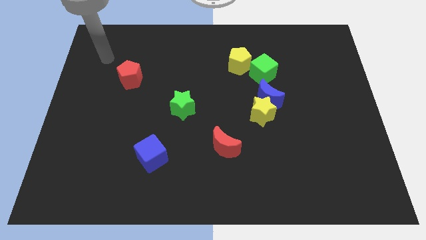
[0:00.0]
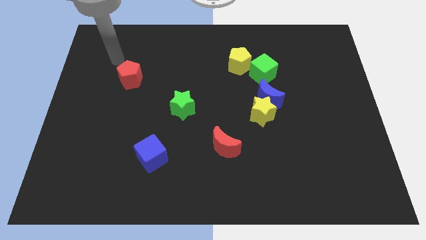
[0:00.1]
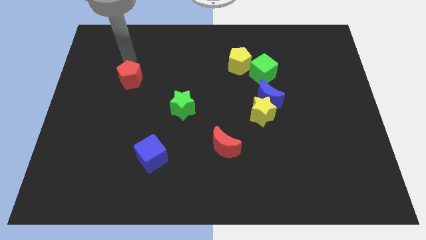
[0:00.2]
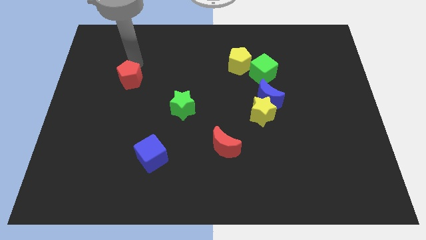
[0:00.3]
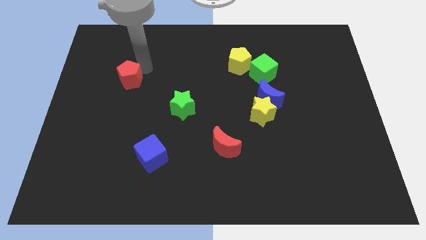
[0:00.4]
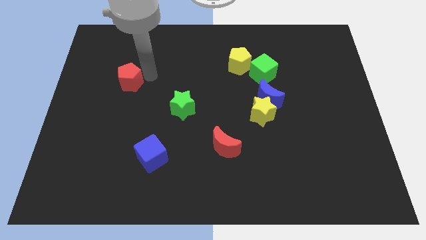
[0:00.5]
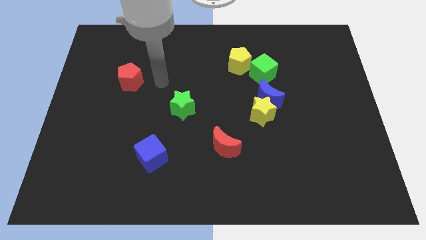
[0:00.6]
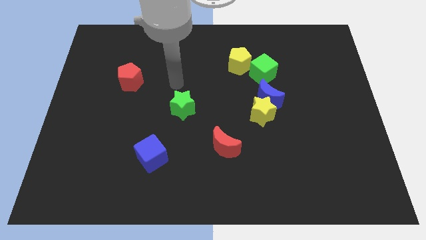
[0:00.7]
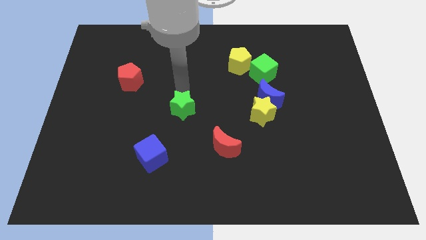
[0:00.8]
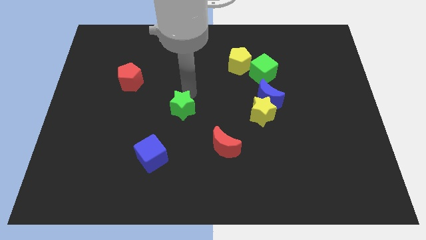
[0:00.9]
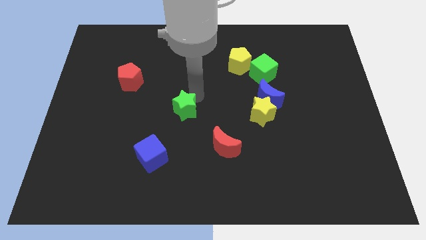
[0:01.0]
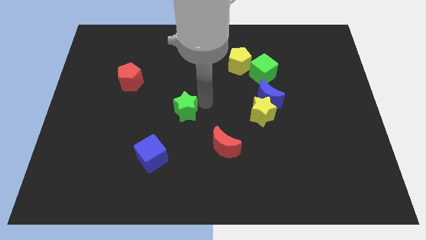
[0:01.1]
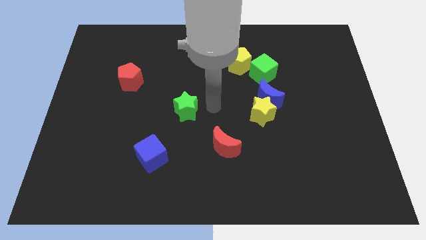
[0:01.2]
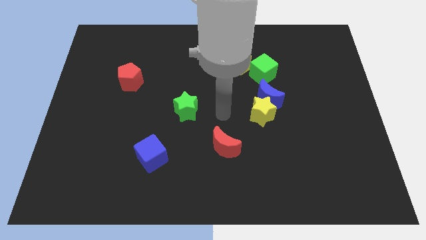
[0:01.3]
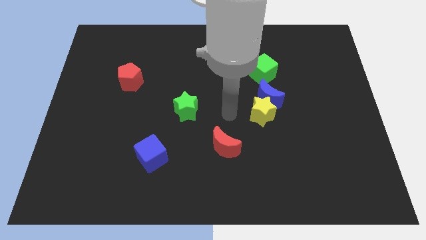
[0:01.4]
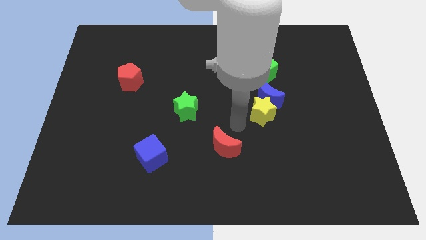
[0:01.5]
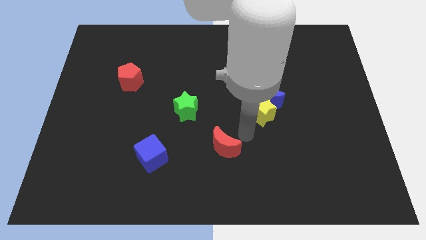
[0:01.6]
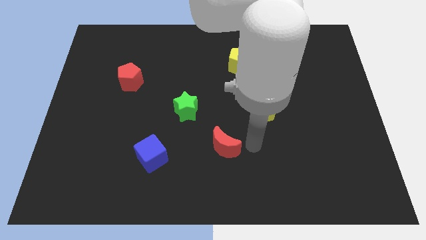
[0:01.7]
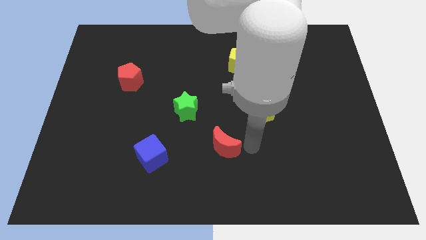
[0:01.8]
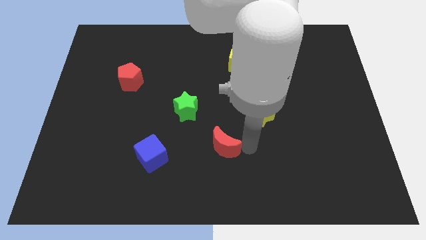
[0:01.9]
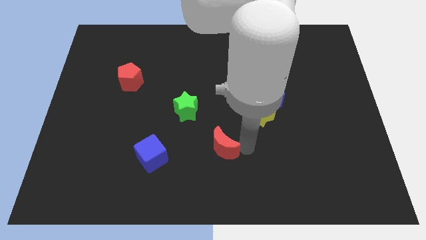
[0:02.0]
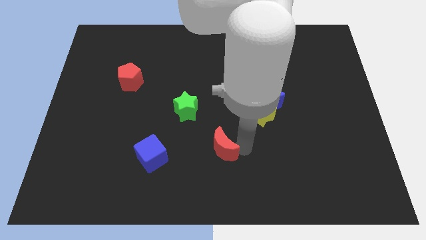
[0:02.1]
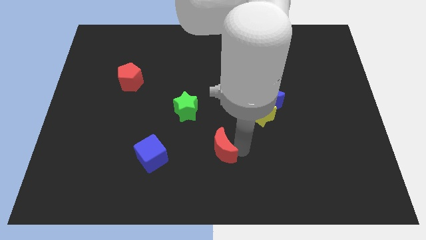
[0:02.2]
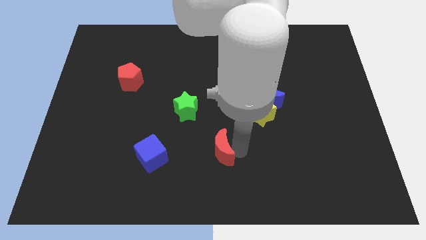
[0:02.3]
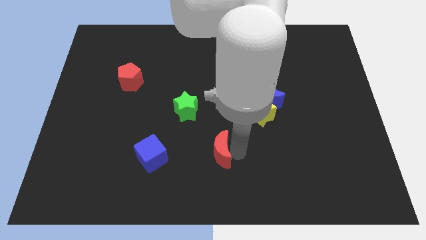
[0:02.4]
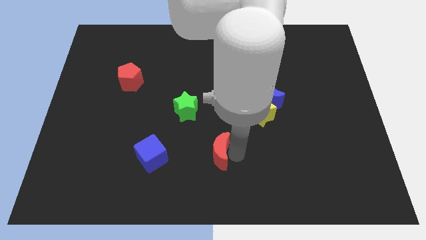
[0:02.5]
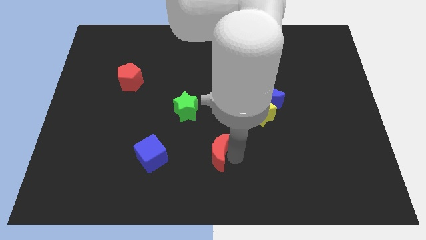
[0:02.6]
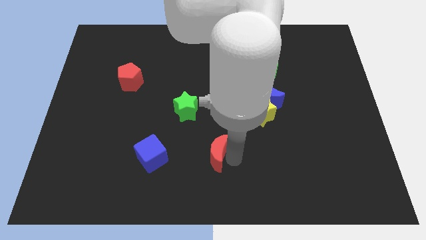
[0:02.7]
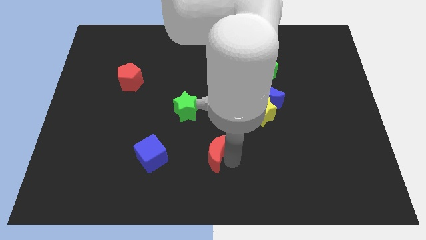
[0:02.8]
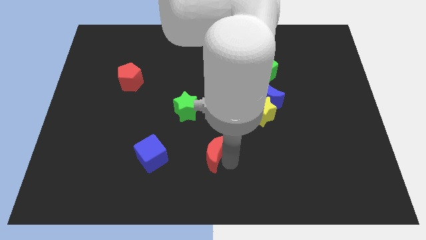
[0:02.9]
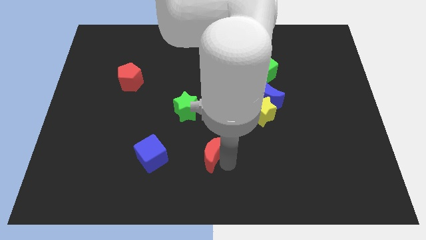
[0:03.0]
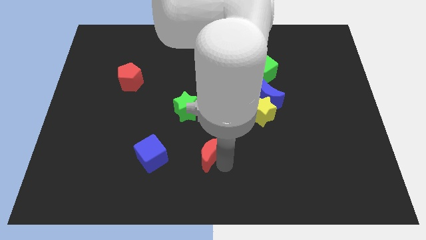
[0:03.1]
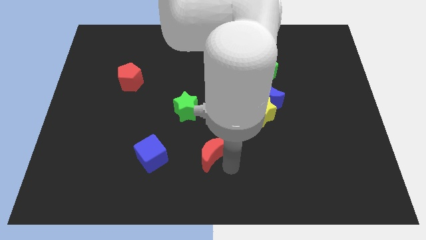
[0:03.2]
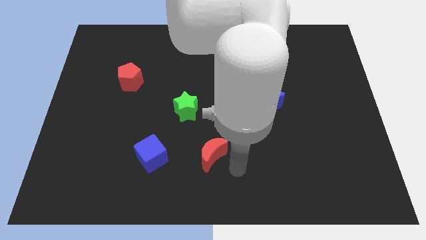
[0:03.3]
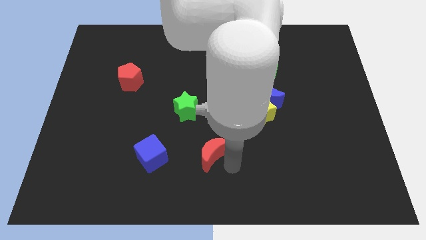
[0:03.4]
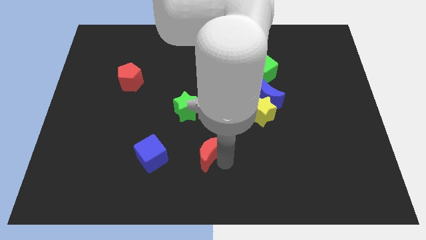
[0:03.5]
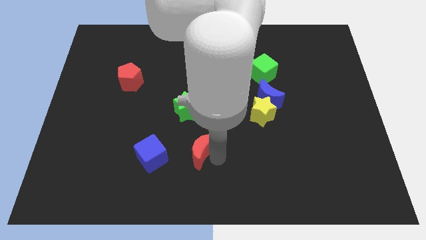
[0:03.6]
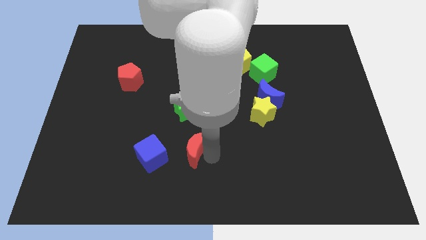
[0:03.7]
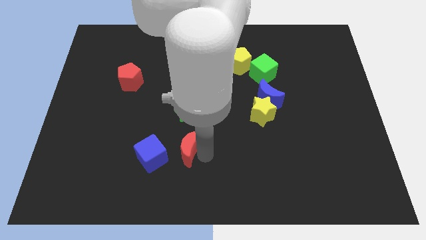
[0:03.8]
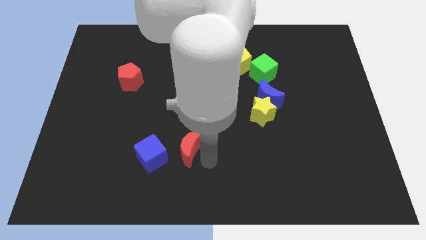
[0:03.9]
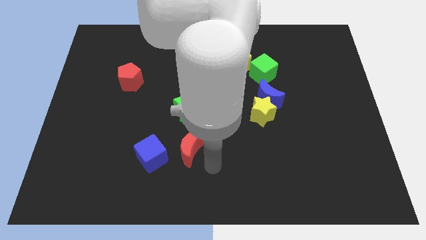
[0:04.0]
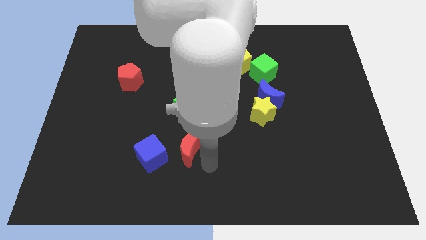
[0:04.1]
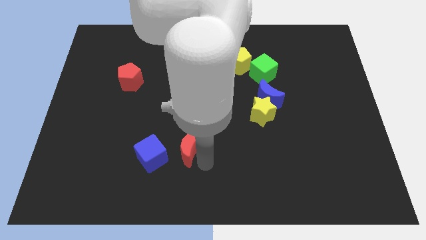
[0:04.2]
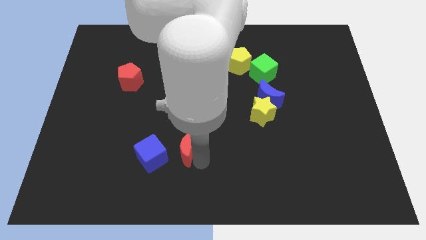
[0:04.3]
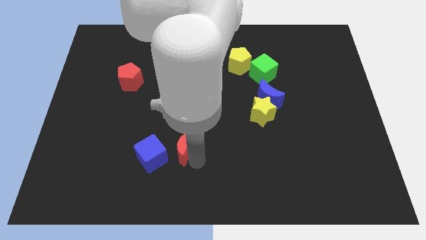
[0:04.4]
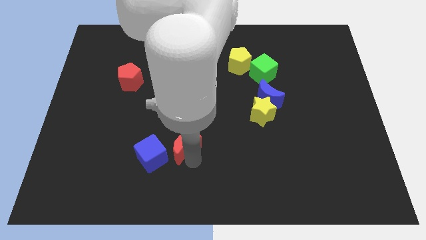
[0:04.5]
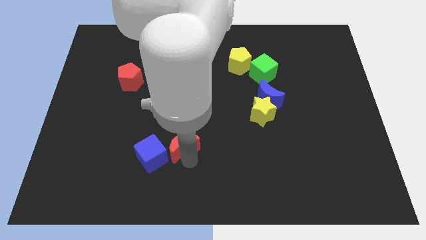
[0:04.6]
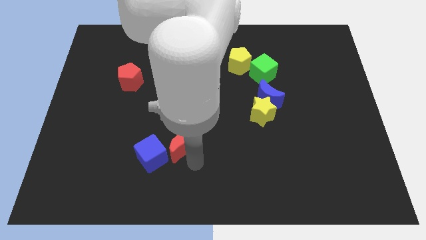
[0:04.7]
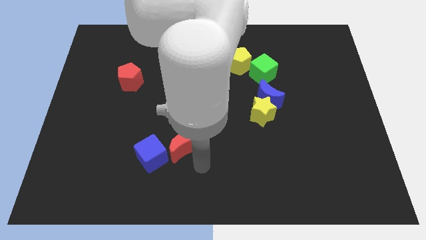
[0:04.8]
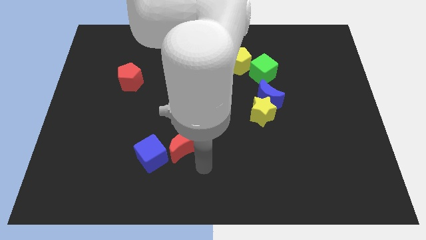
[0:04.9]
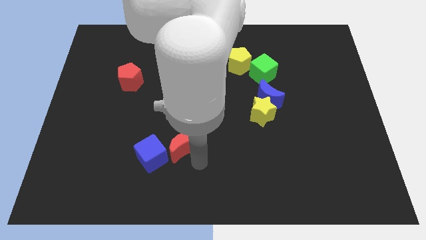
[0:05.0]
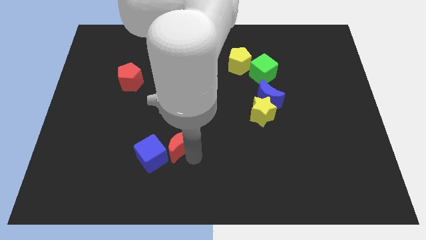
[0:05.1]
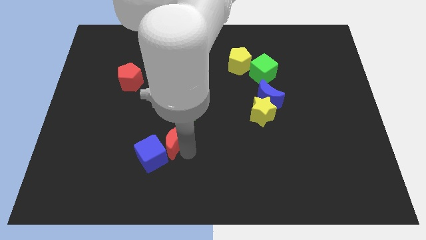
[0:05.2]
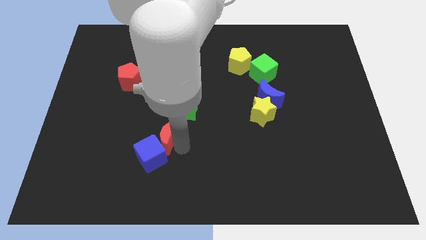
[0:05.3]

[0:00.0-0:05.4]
move the red moon a little up and to the left

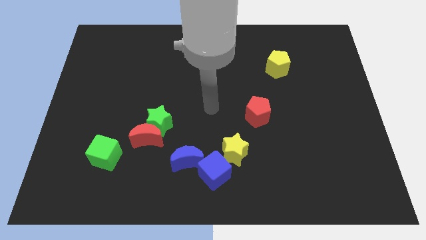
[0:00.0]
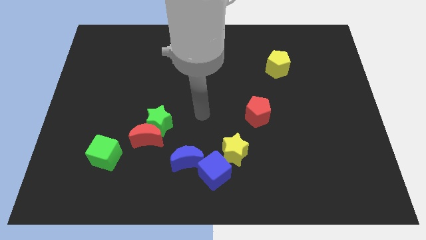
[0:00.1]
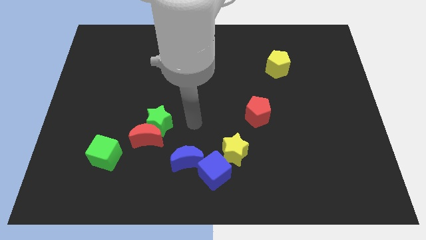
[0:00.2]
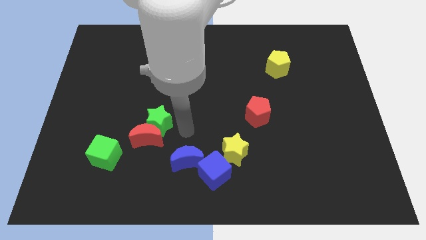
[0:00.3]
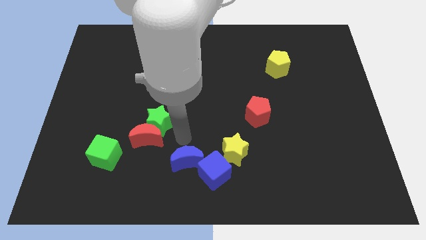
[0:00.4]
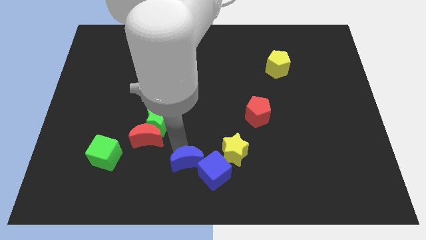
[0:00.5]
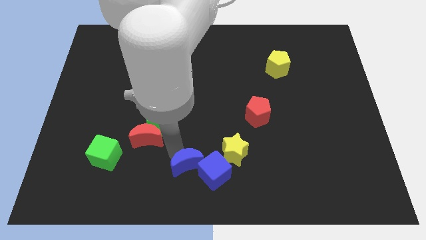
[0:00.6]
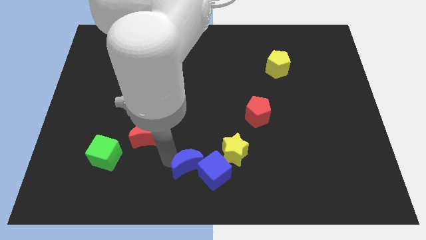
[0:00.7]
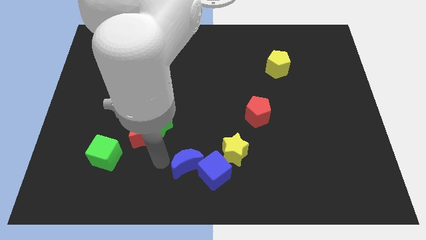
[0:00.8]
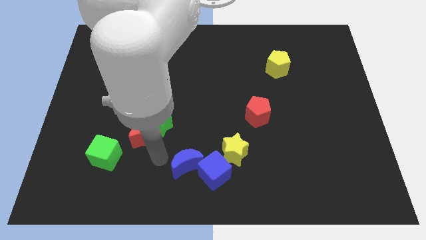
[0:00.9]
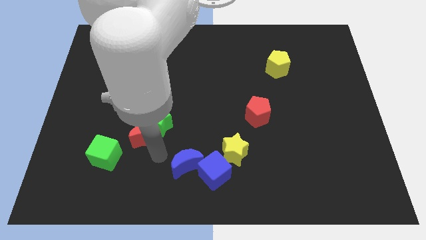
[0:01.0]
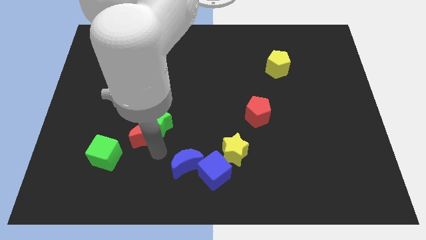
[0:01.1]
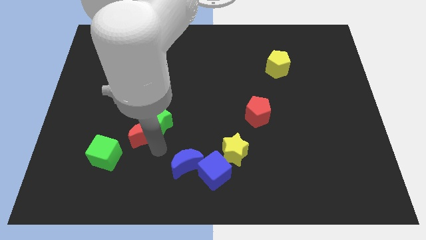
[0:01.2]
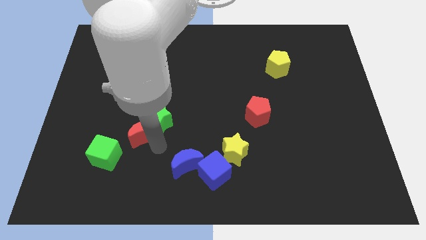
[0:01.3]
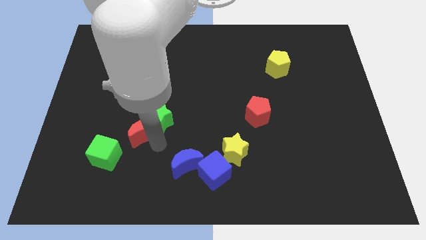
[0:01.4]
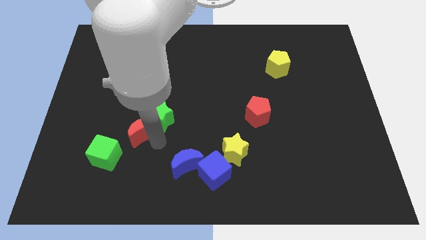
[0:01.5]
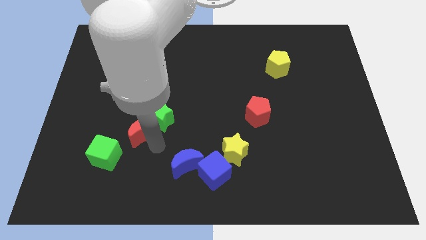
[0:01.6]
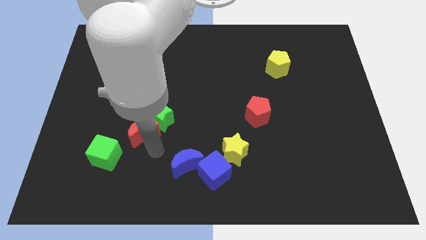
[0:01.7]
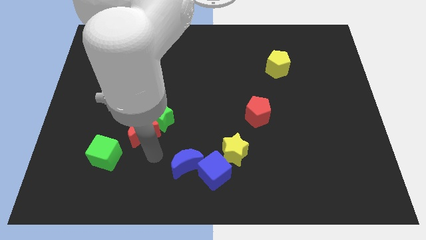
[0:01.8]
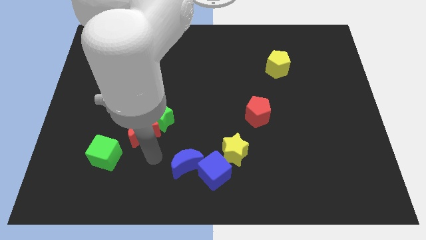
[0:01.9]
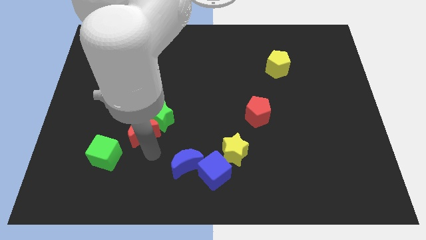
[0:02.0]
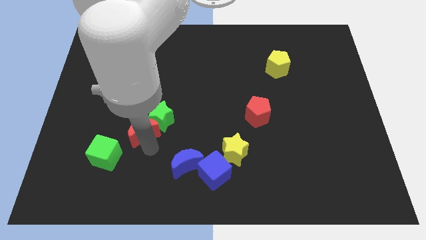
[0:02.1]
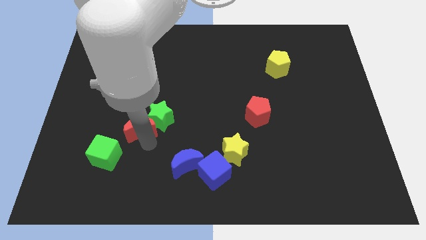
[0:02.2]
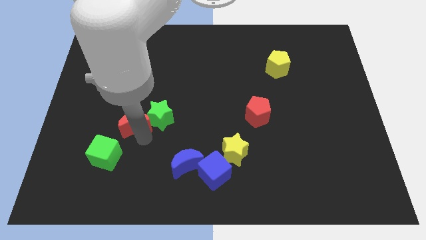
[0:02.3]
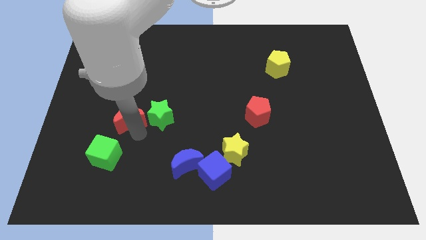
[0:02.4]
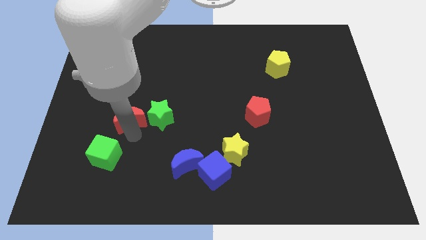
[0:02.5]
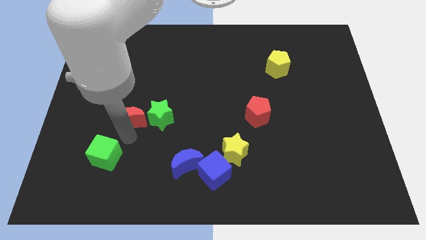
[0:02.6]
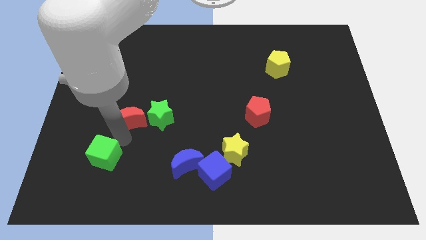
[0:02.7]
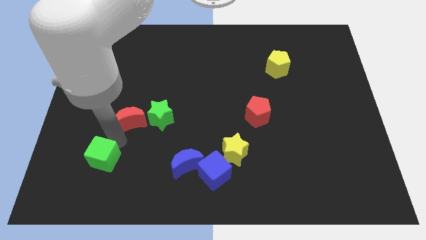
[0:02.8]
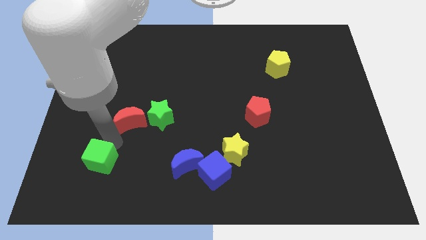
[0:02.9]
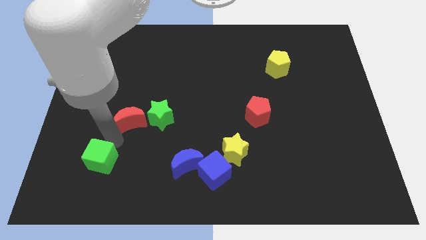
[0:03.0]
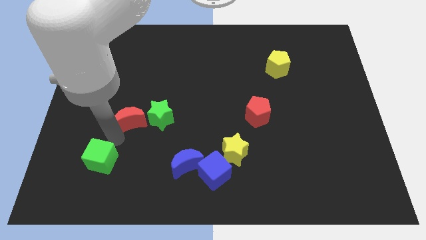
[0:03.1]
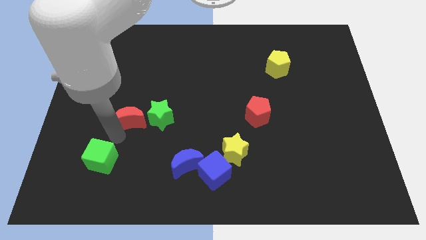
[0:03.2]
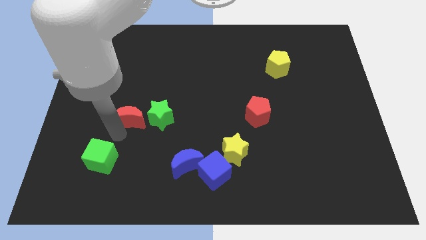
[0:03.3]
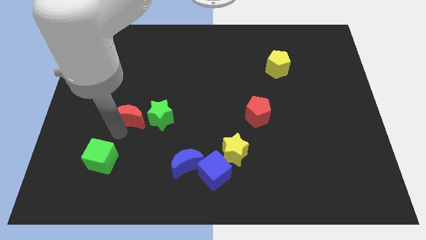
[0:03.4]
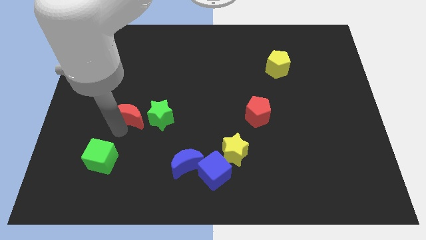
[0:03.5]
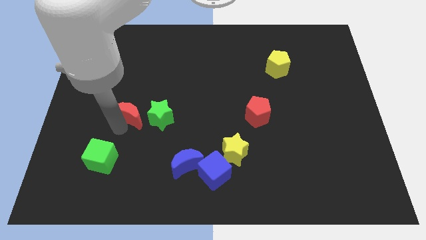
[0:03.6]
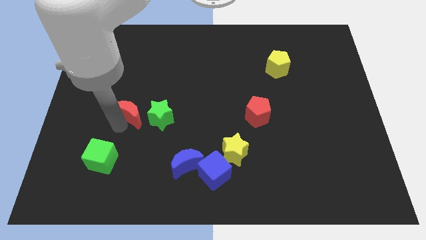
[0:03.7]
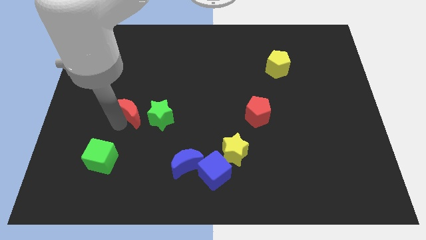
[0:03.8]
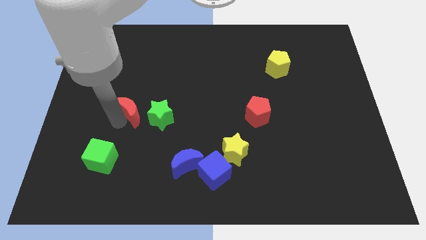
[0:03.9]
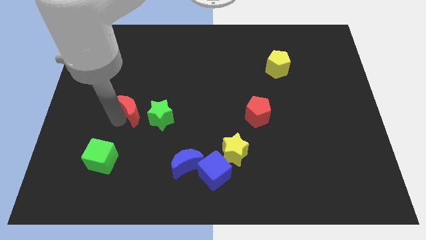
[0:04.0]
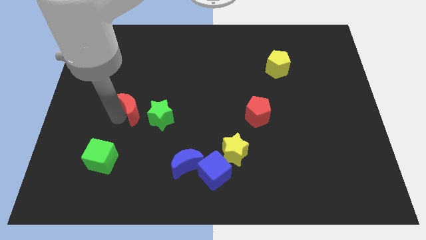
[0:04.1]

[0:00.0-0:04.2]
move the red moon somewhat up
